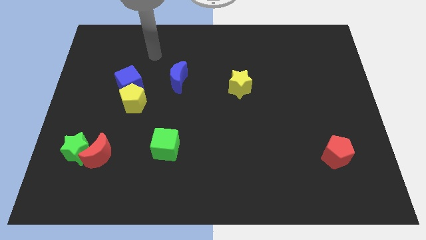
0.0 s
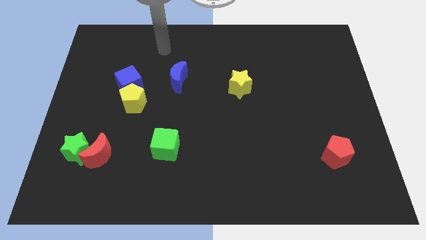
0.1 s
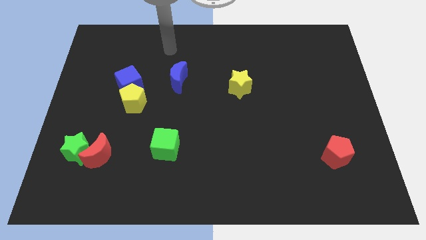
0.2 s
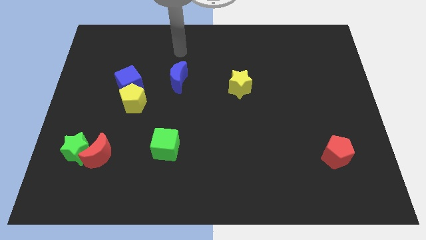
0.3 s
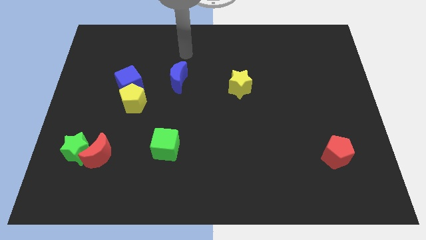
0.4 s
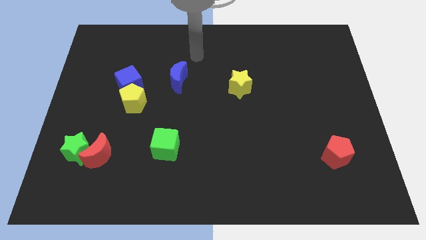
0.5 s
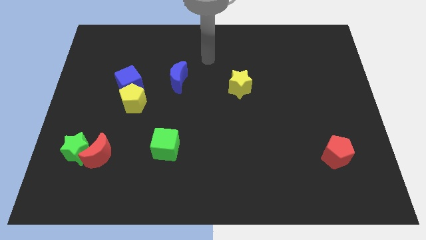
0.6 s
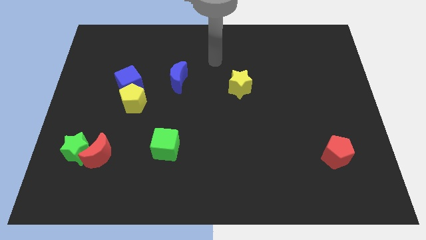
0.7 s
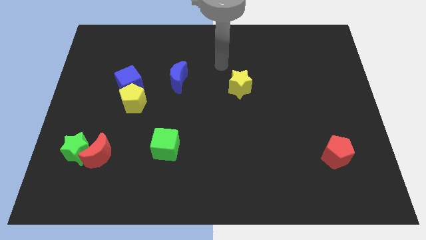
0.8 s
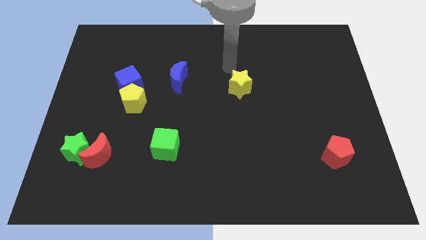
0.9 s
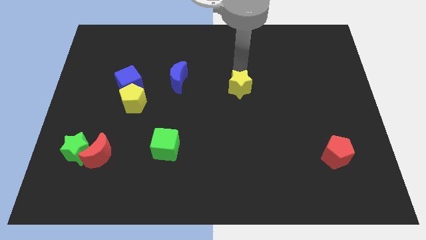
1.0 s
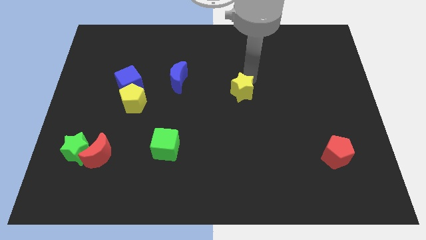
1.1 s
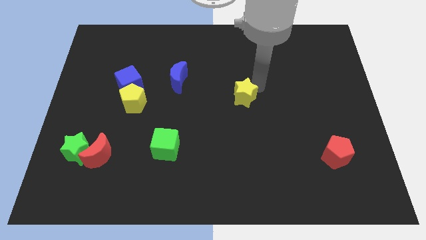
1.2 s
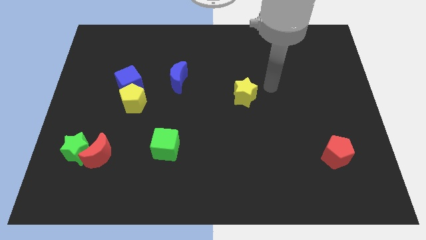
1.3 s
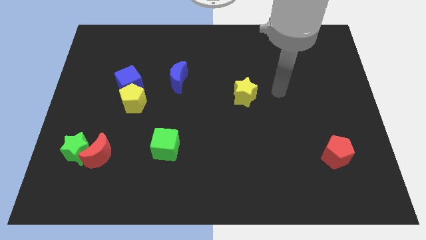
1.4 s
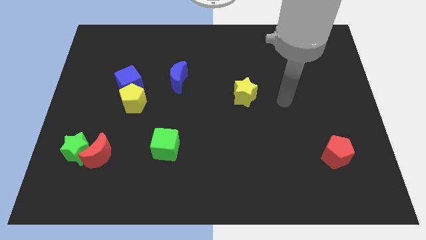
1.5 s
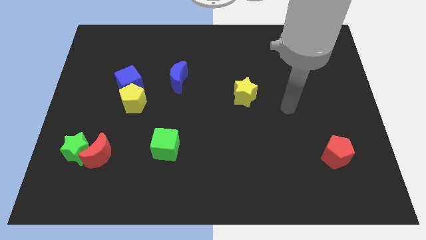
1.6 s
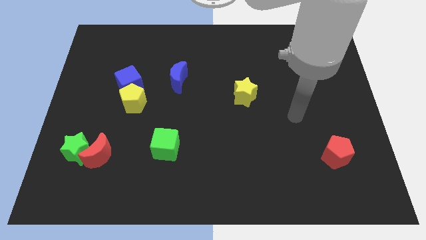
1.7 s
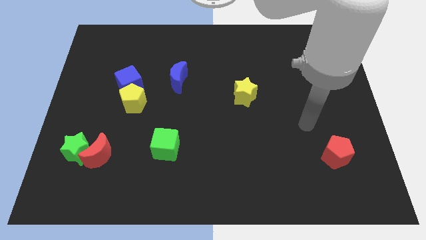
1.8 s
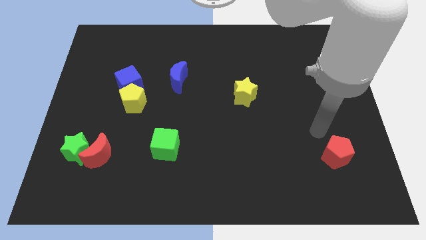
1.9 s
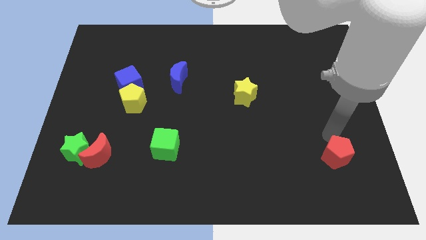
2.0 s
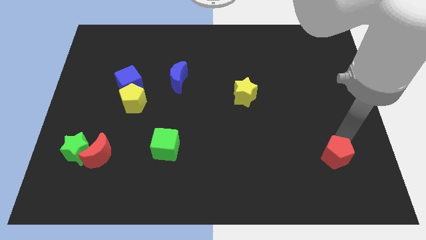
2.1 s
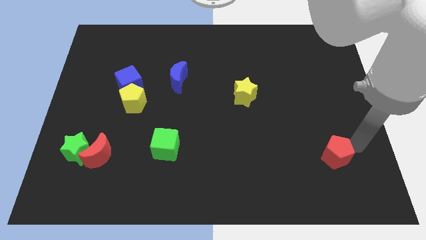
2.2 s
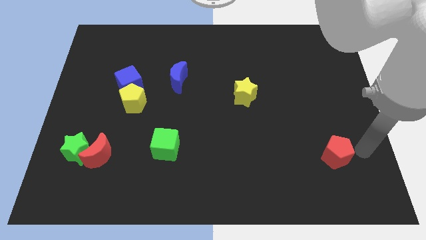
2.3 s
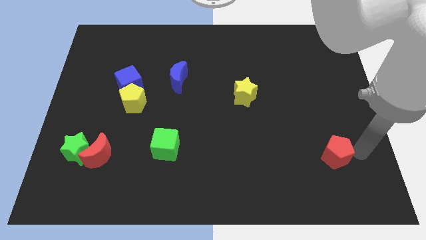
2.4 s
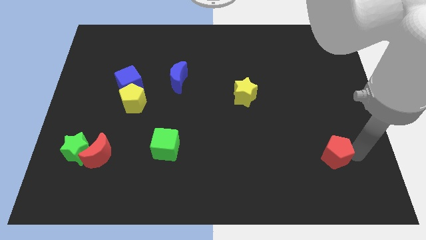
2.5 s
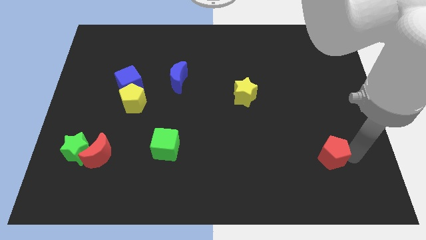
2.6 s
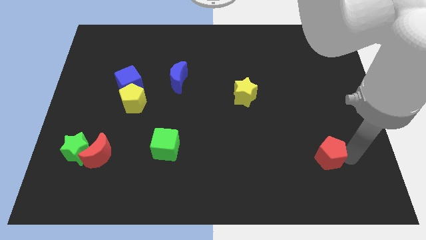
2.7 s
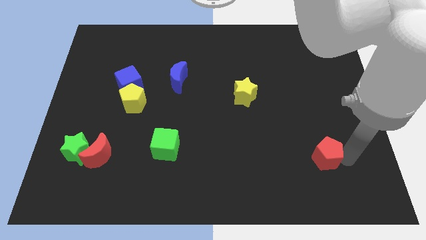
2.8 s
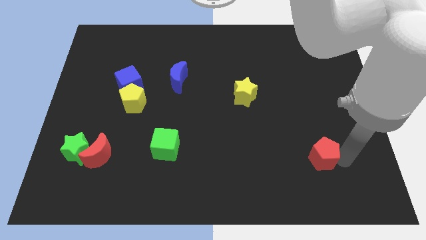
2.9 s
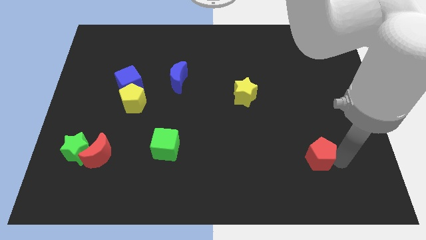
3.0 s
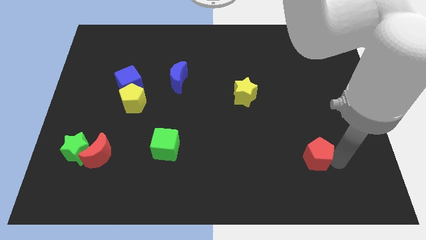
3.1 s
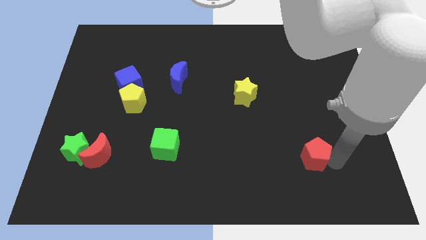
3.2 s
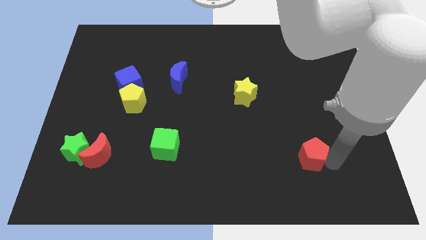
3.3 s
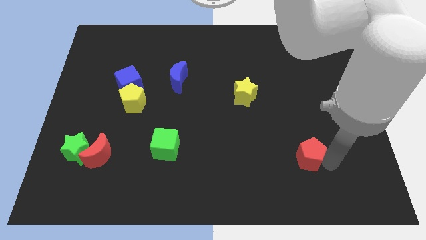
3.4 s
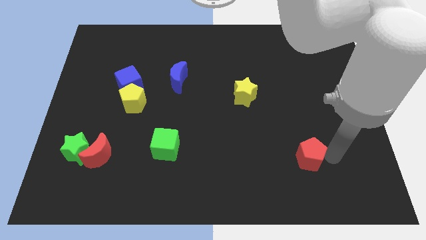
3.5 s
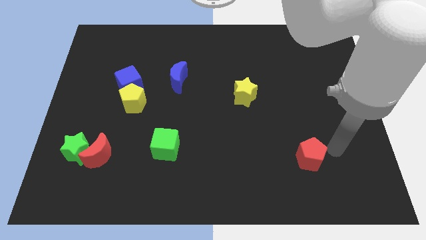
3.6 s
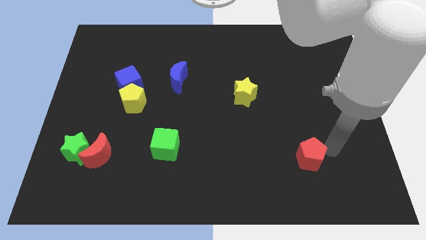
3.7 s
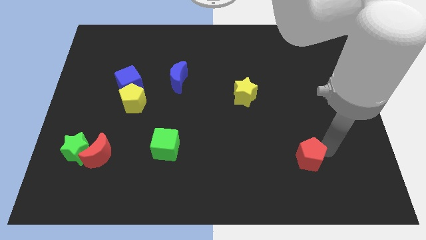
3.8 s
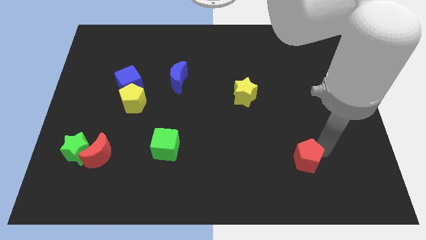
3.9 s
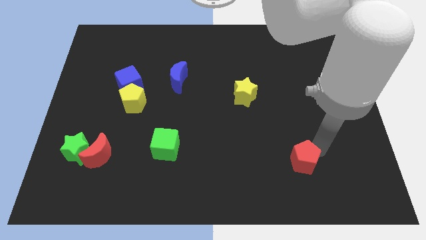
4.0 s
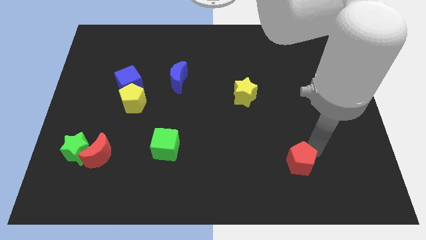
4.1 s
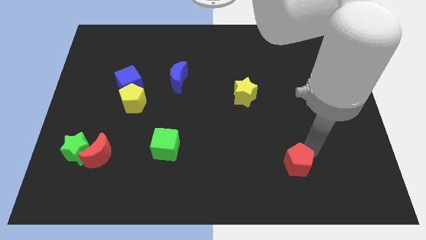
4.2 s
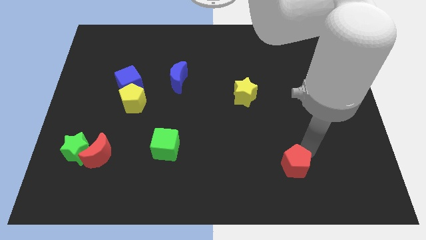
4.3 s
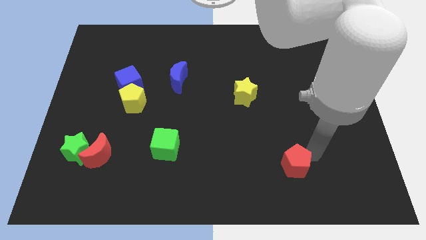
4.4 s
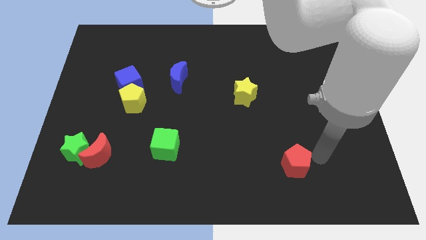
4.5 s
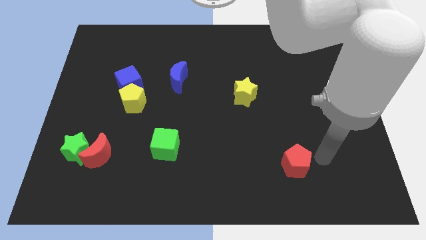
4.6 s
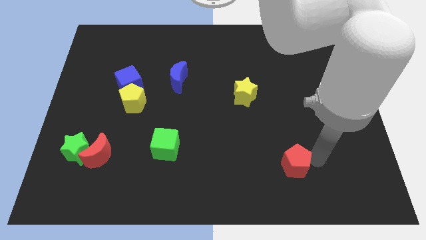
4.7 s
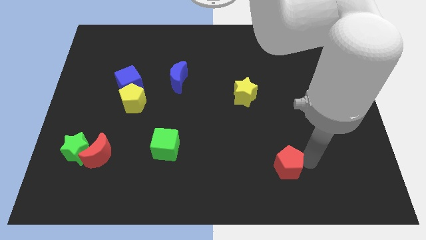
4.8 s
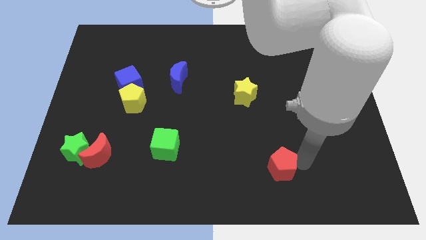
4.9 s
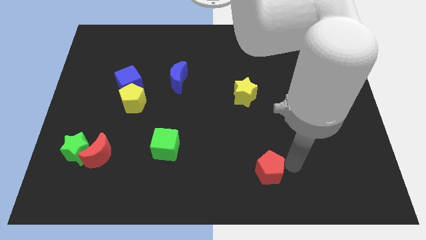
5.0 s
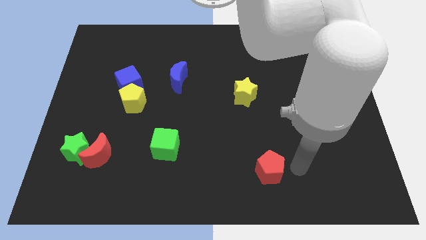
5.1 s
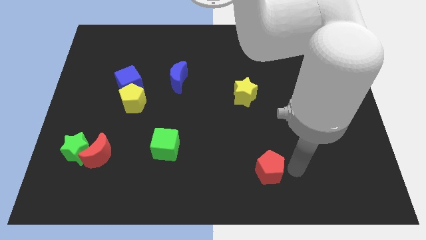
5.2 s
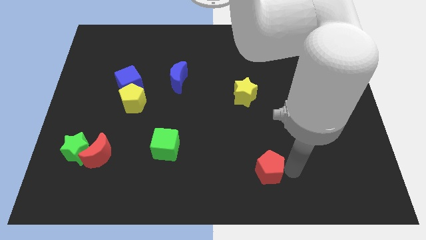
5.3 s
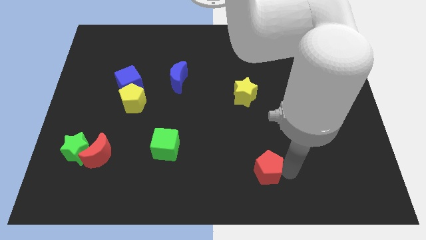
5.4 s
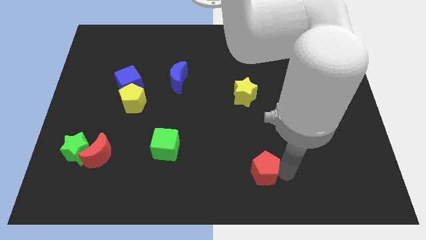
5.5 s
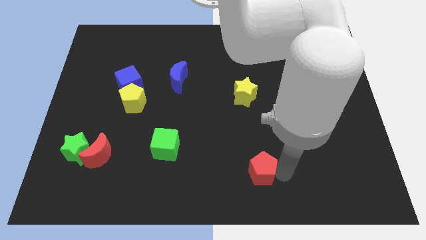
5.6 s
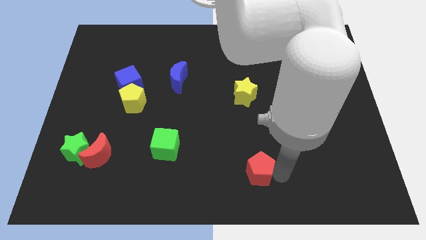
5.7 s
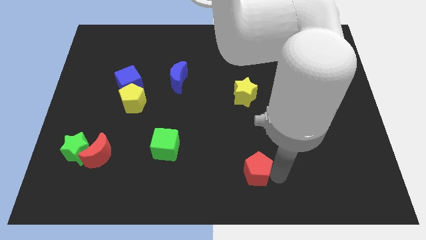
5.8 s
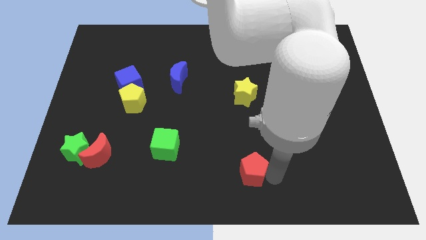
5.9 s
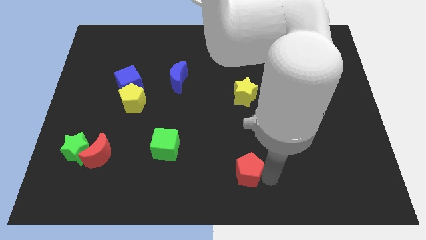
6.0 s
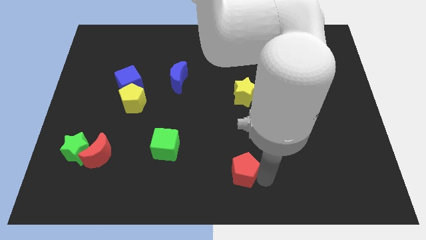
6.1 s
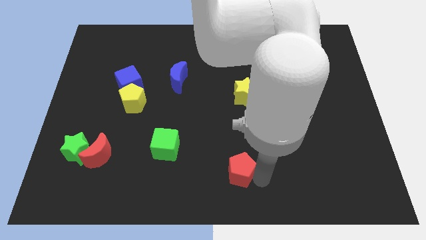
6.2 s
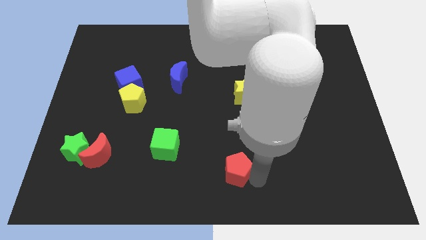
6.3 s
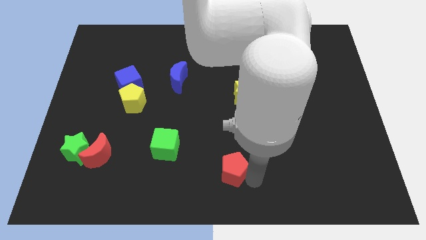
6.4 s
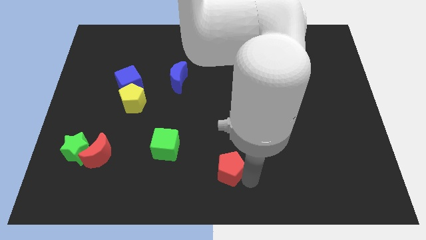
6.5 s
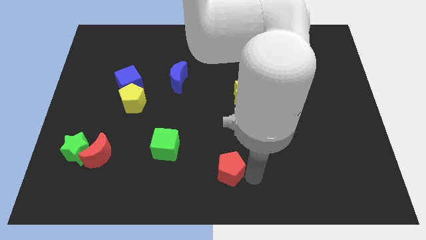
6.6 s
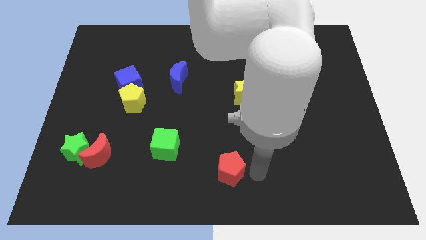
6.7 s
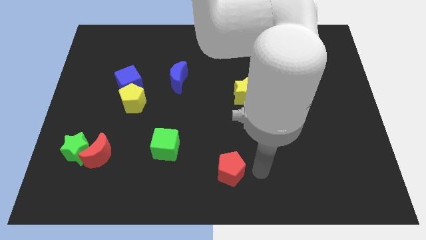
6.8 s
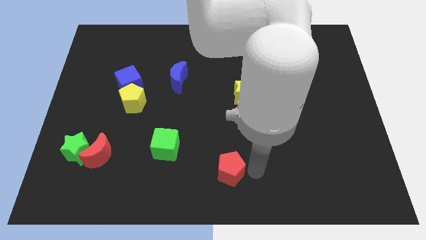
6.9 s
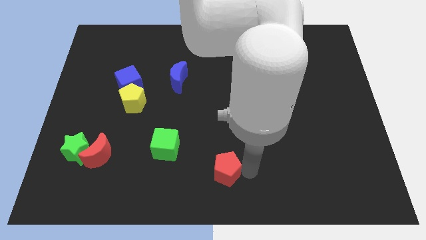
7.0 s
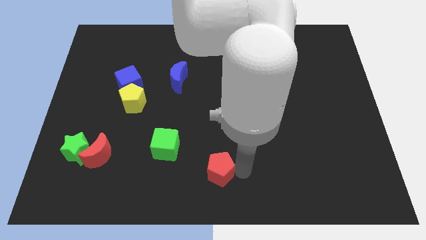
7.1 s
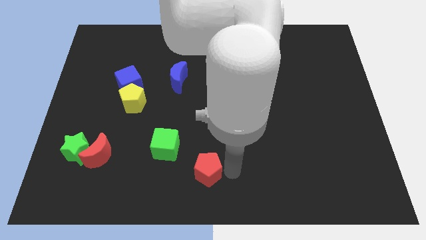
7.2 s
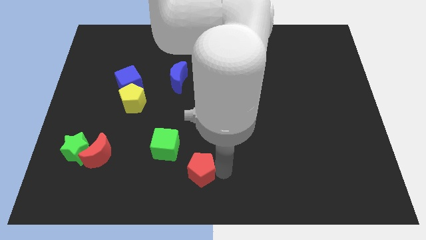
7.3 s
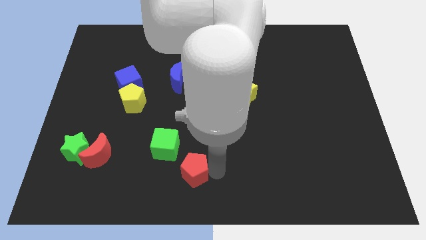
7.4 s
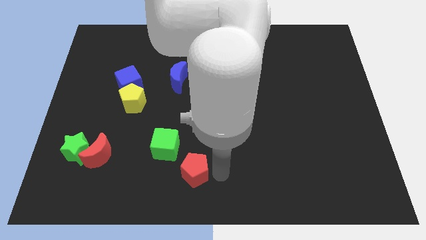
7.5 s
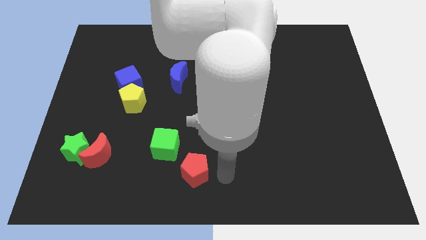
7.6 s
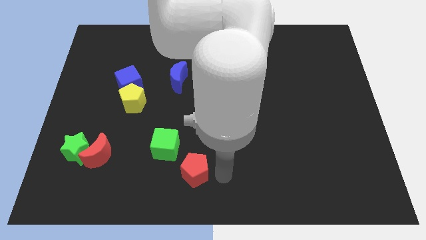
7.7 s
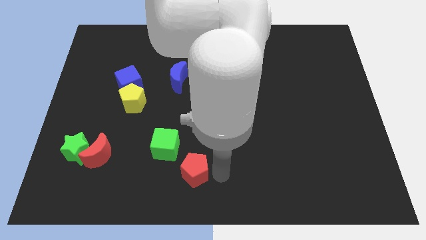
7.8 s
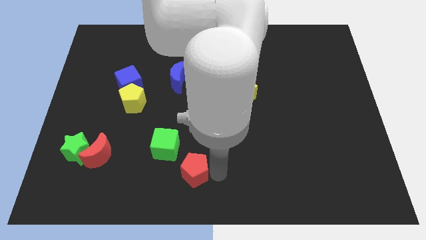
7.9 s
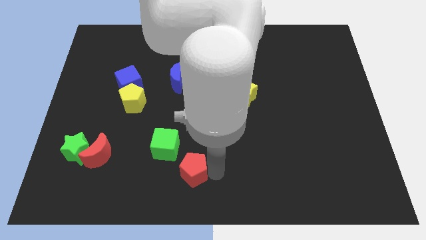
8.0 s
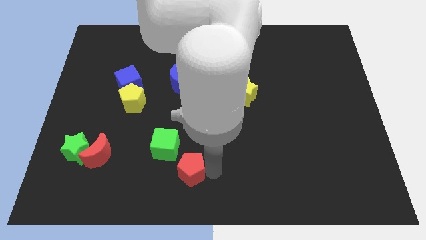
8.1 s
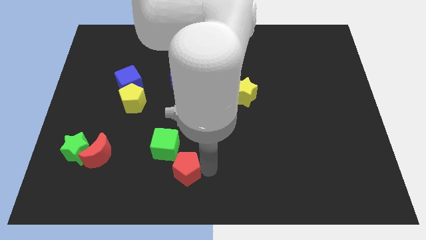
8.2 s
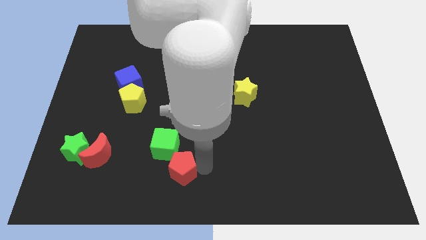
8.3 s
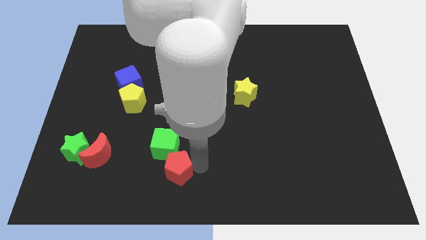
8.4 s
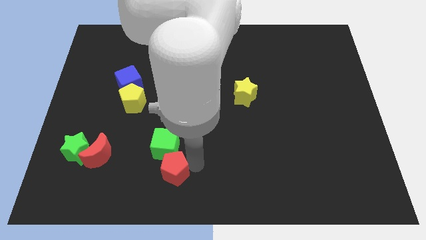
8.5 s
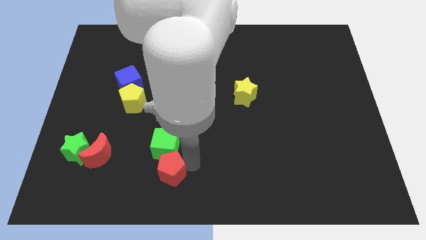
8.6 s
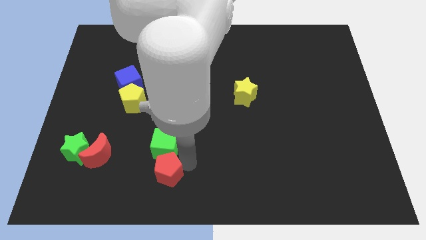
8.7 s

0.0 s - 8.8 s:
move the red pentagon to the bottom left side of the green cube
